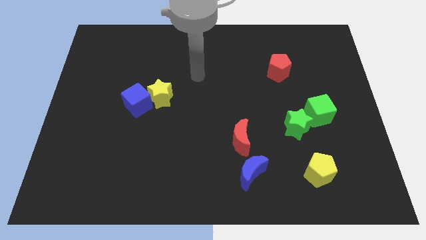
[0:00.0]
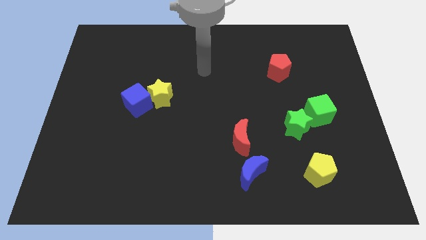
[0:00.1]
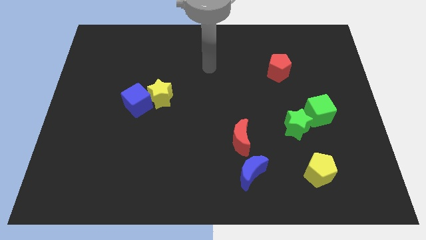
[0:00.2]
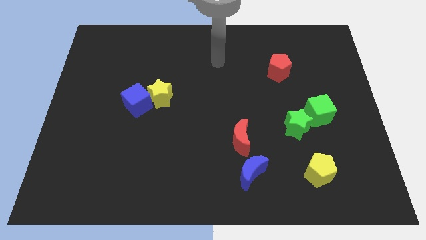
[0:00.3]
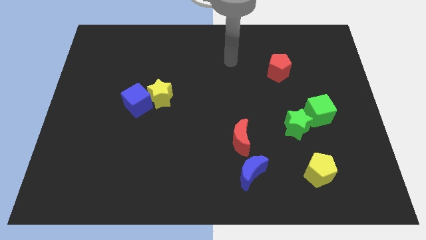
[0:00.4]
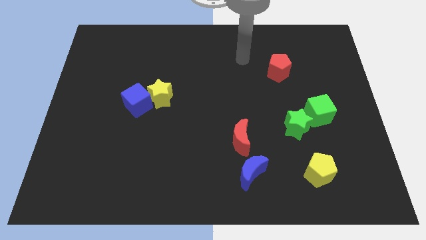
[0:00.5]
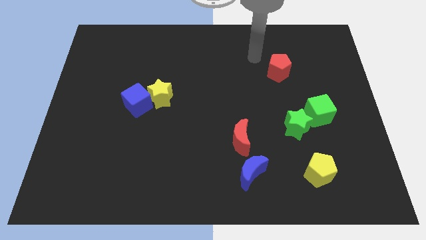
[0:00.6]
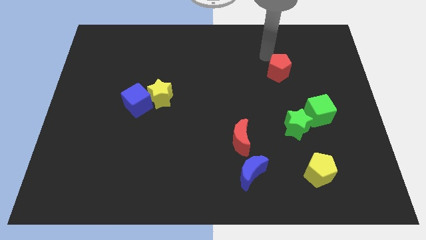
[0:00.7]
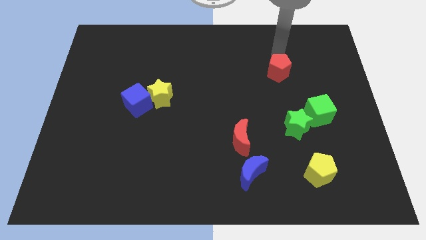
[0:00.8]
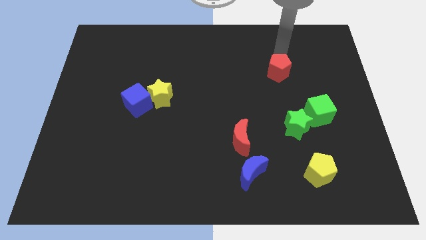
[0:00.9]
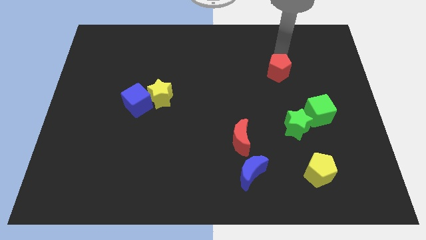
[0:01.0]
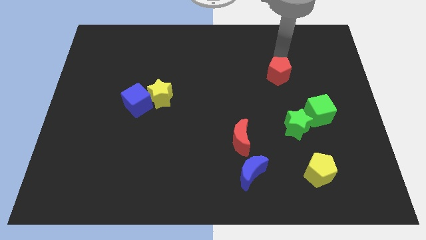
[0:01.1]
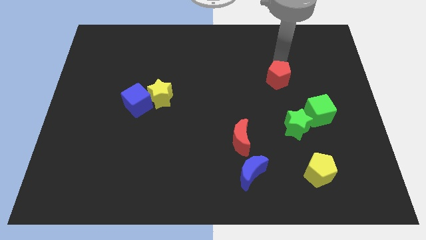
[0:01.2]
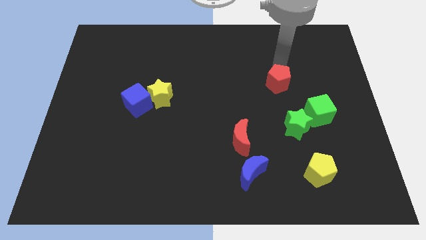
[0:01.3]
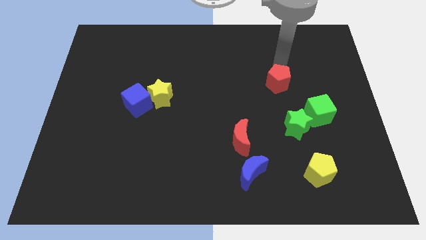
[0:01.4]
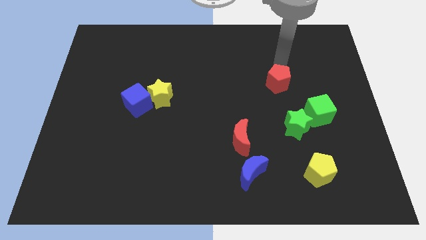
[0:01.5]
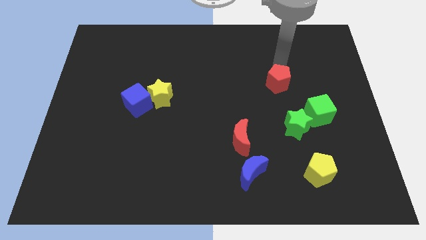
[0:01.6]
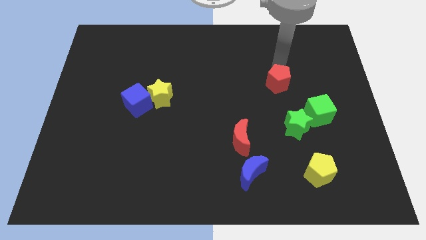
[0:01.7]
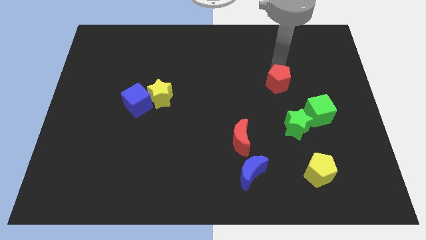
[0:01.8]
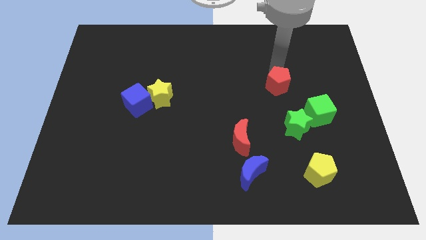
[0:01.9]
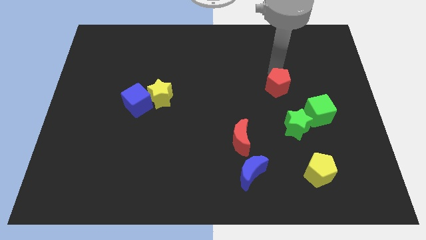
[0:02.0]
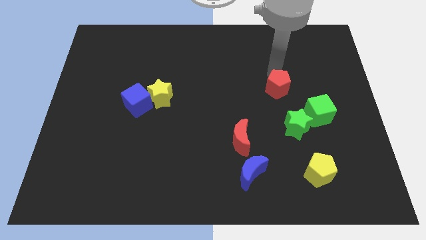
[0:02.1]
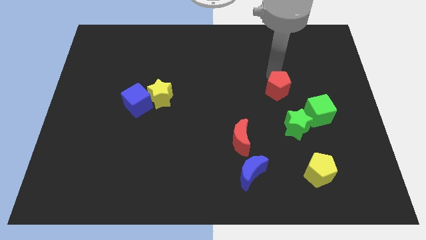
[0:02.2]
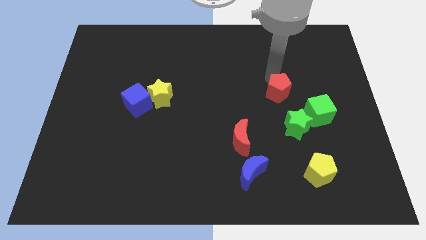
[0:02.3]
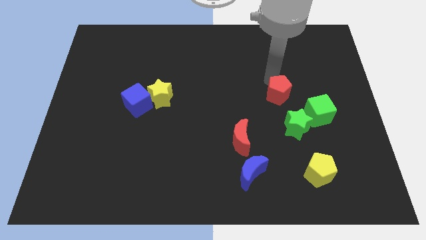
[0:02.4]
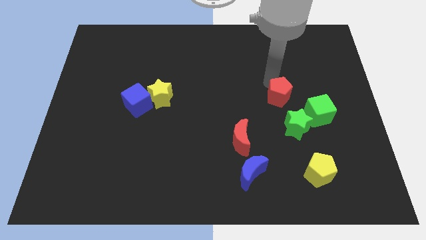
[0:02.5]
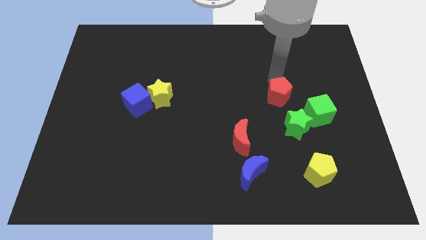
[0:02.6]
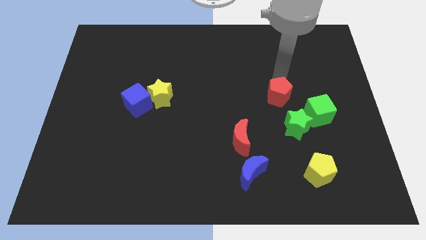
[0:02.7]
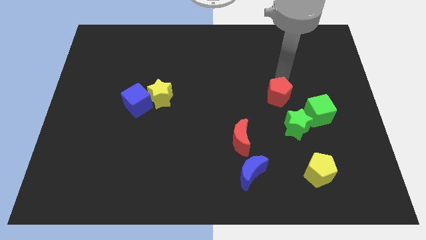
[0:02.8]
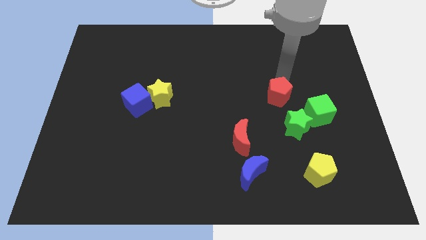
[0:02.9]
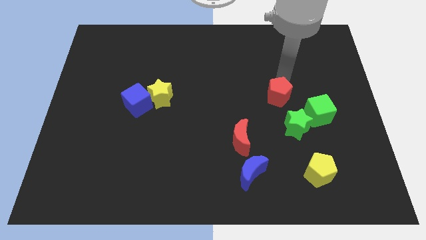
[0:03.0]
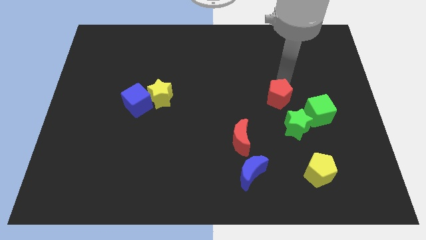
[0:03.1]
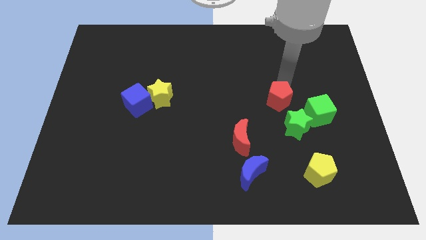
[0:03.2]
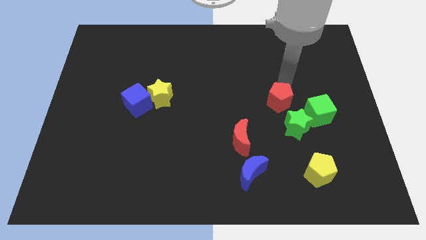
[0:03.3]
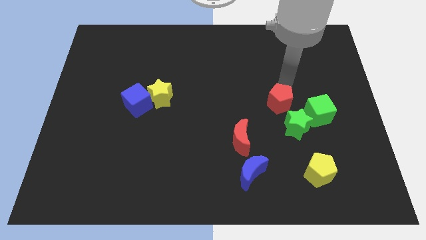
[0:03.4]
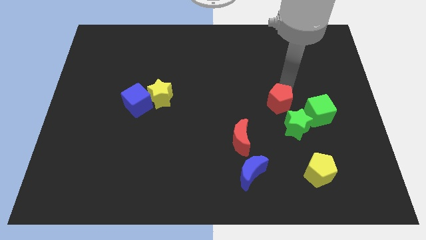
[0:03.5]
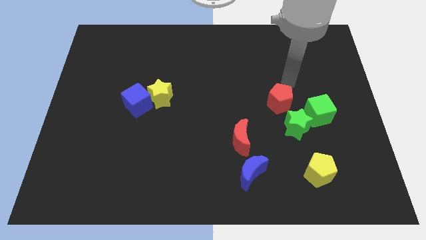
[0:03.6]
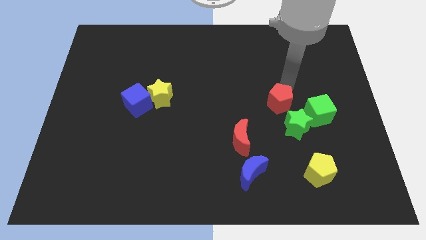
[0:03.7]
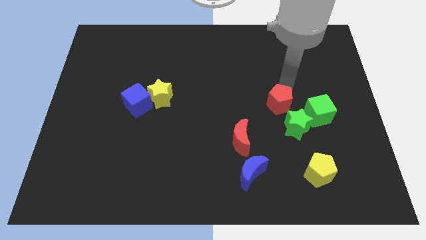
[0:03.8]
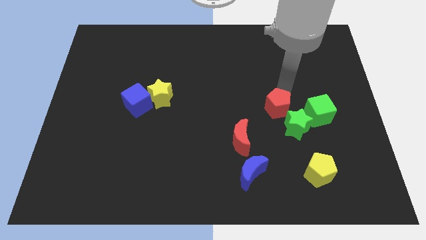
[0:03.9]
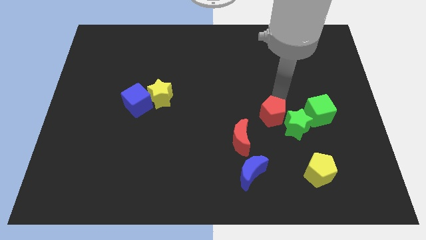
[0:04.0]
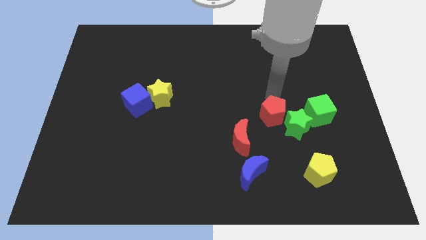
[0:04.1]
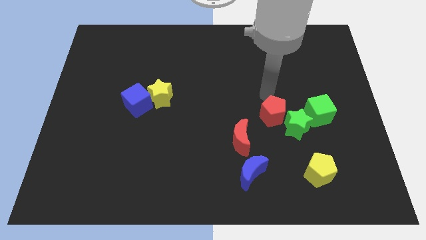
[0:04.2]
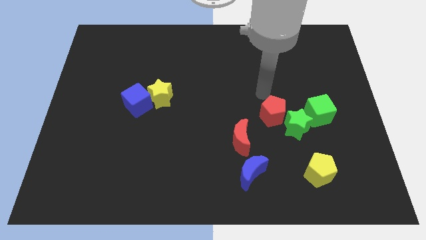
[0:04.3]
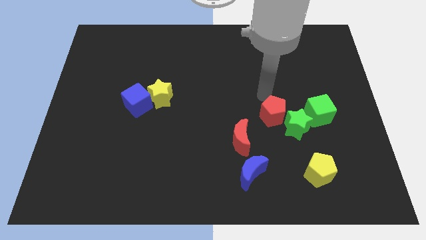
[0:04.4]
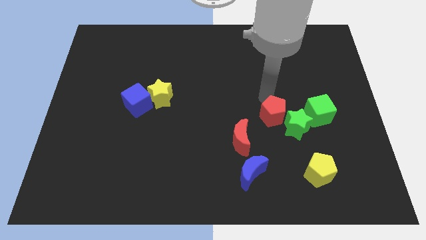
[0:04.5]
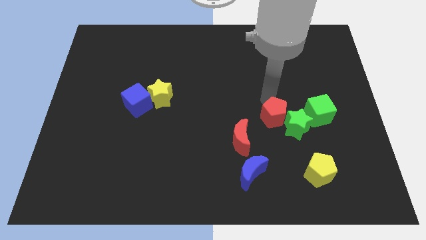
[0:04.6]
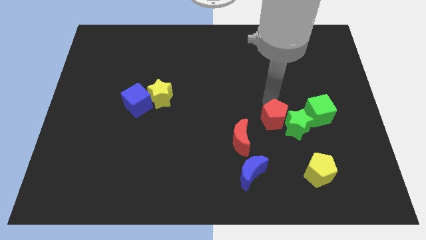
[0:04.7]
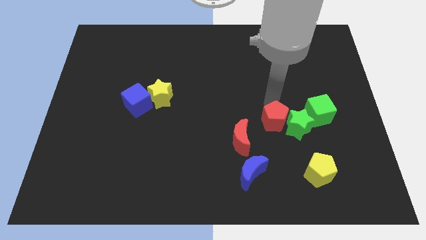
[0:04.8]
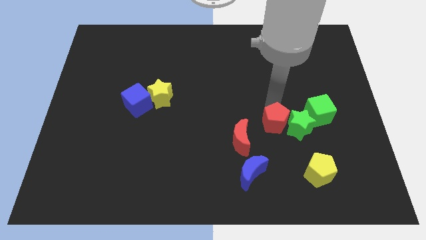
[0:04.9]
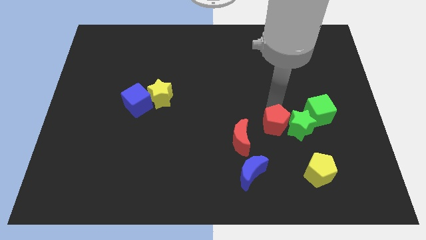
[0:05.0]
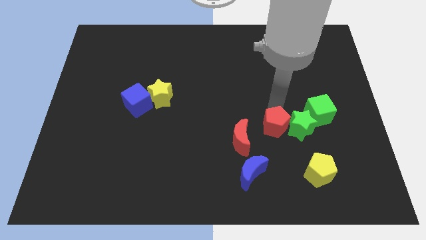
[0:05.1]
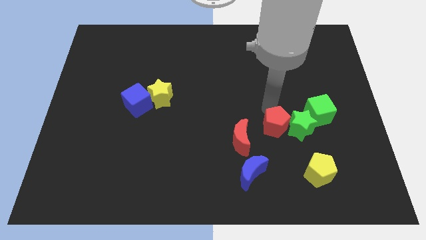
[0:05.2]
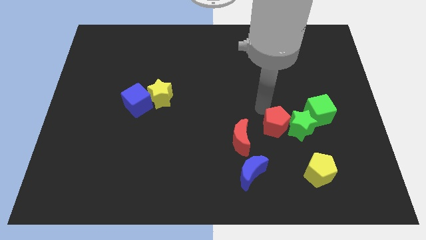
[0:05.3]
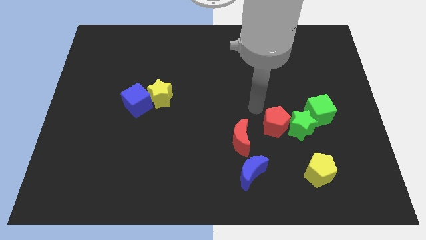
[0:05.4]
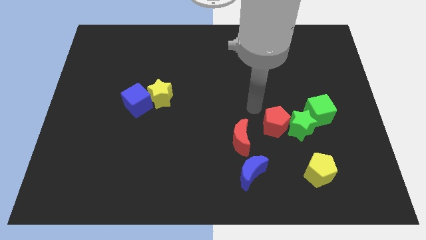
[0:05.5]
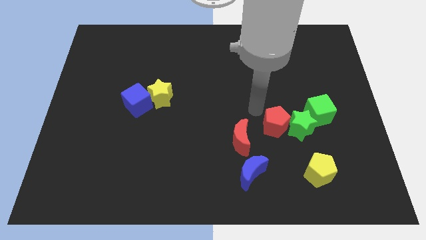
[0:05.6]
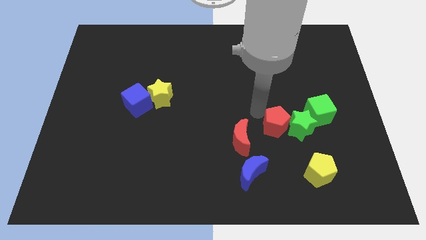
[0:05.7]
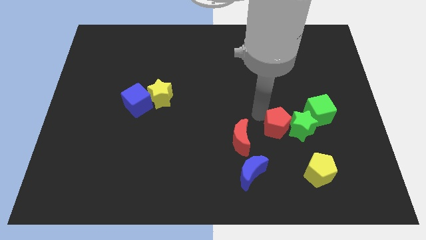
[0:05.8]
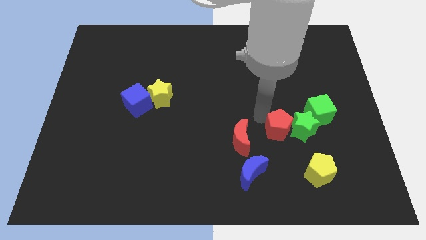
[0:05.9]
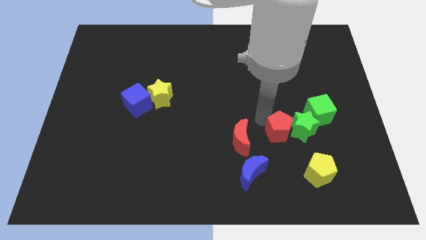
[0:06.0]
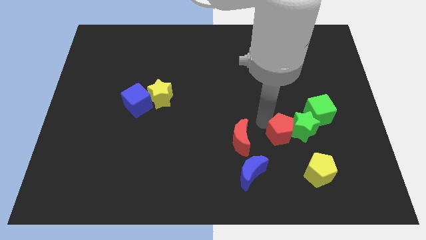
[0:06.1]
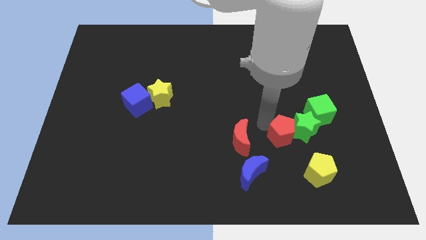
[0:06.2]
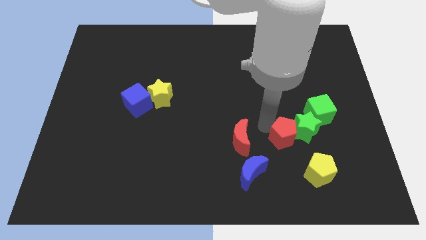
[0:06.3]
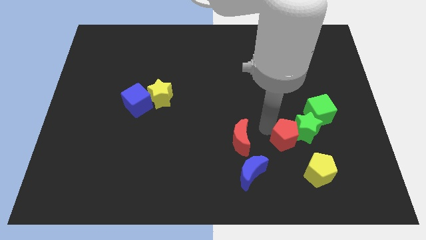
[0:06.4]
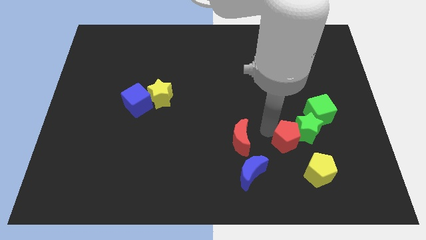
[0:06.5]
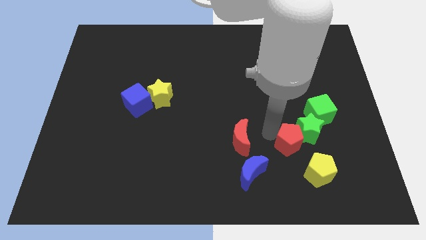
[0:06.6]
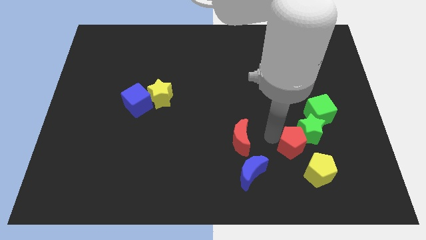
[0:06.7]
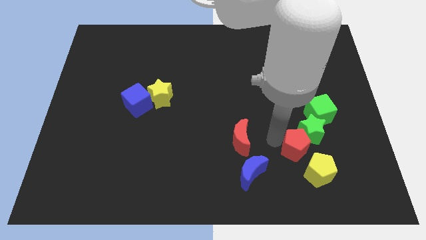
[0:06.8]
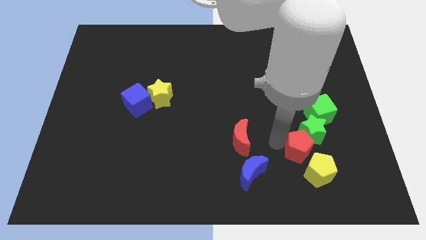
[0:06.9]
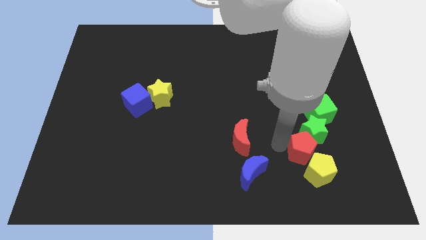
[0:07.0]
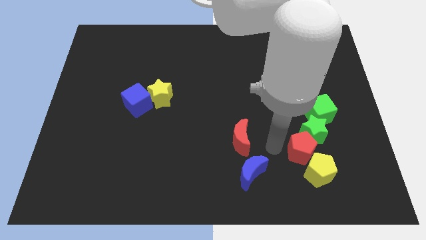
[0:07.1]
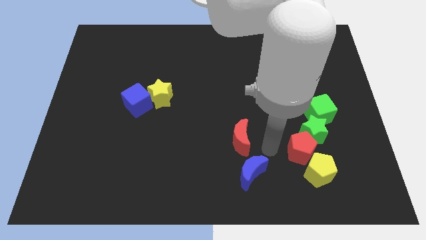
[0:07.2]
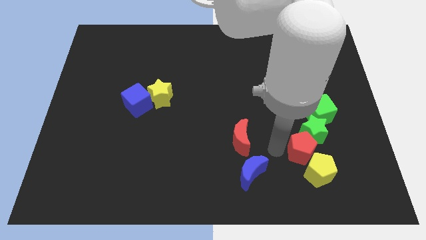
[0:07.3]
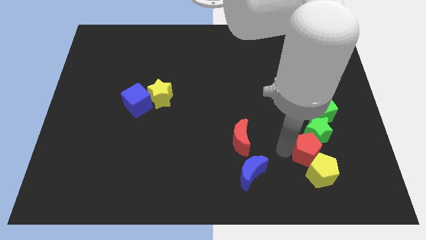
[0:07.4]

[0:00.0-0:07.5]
move the red pentagon to the bottom of the green cube
